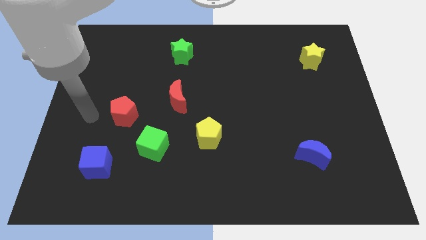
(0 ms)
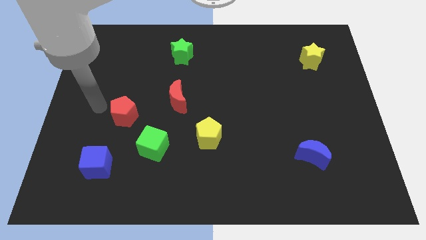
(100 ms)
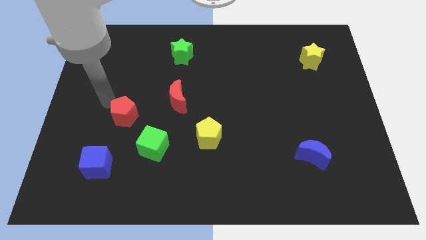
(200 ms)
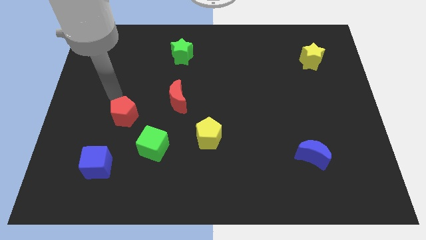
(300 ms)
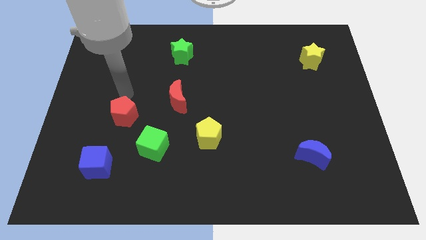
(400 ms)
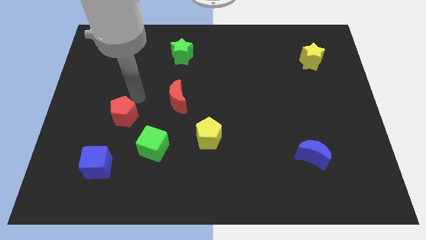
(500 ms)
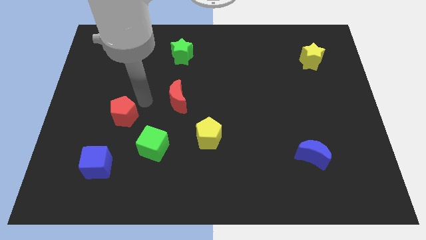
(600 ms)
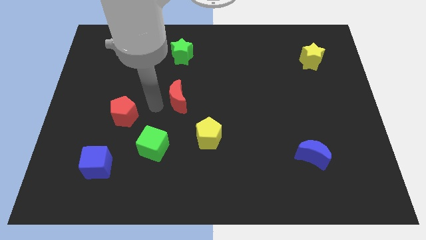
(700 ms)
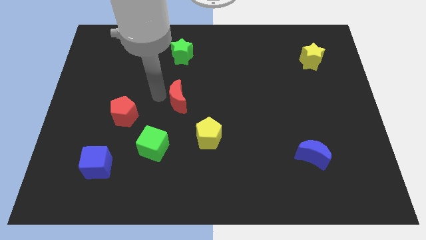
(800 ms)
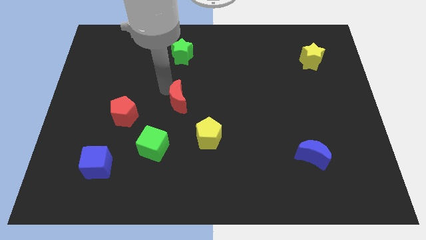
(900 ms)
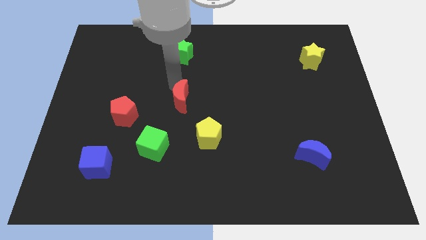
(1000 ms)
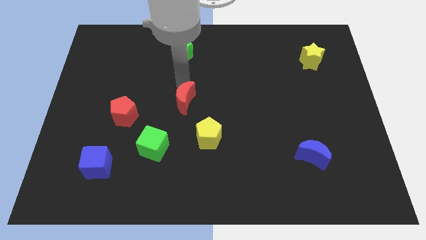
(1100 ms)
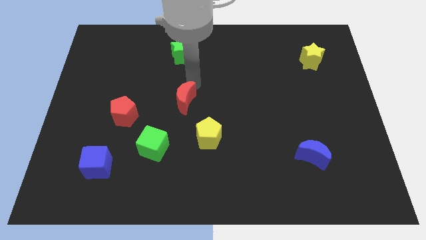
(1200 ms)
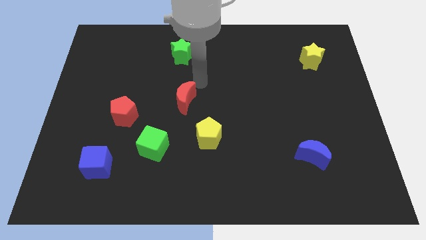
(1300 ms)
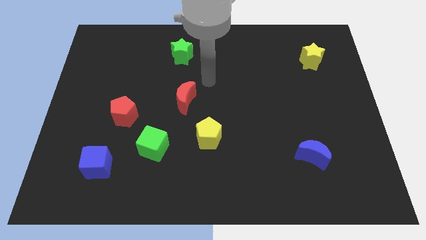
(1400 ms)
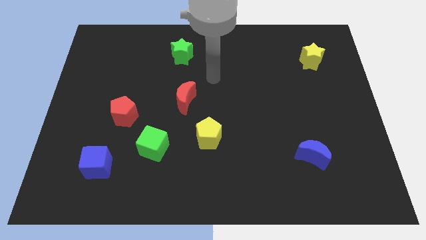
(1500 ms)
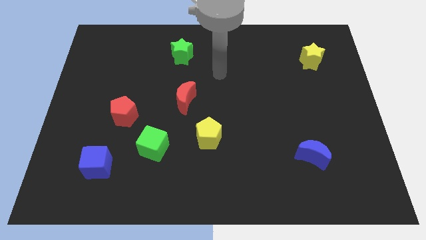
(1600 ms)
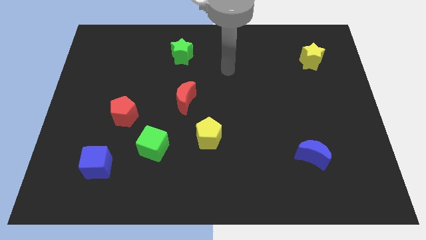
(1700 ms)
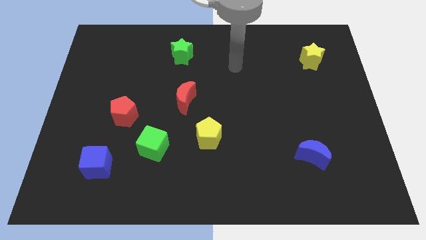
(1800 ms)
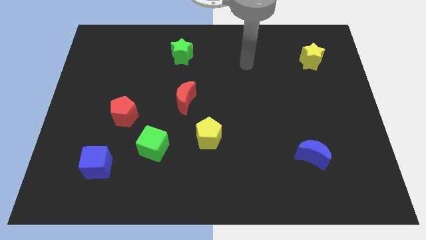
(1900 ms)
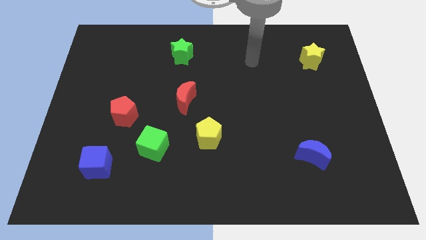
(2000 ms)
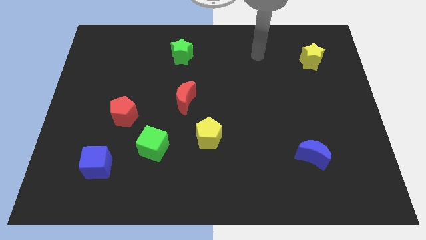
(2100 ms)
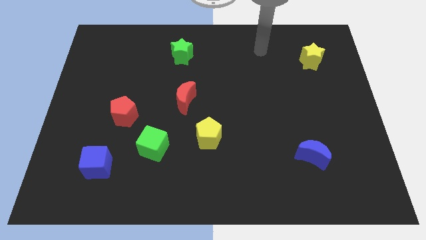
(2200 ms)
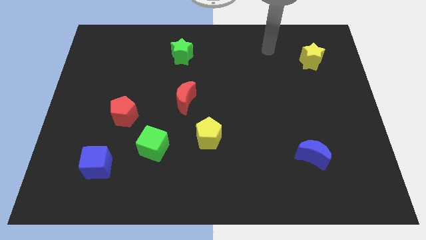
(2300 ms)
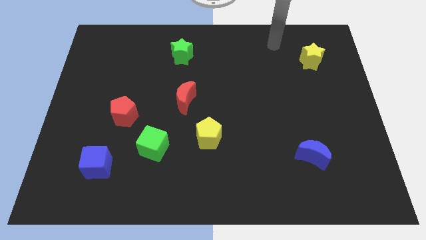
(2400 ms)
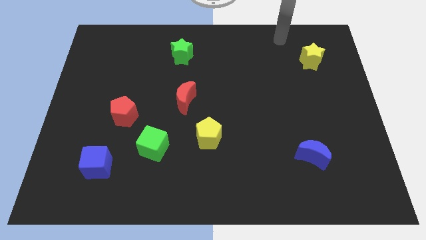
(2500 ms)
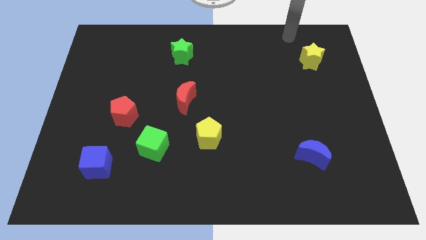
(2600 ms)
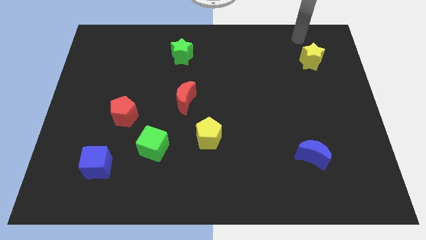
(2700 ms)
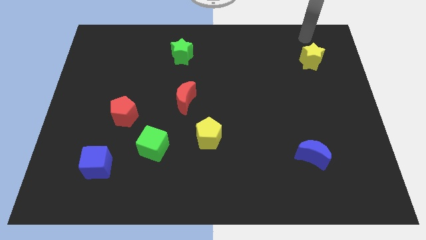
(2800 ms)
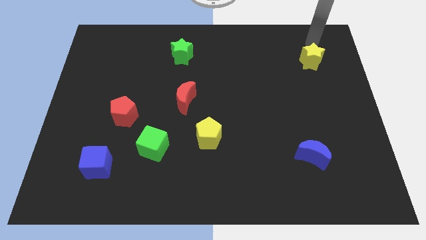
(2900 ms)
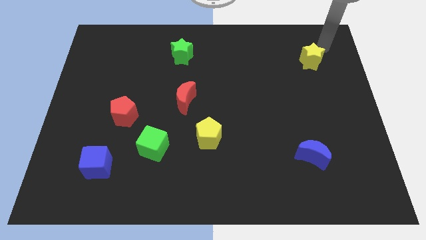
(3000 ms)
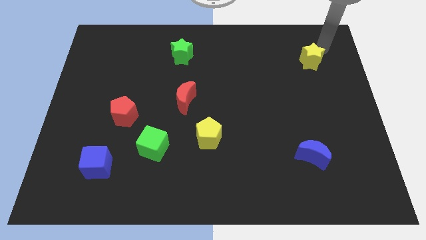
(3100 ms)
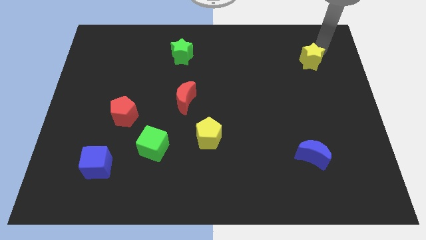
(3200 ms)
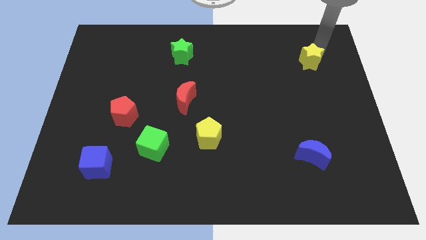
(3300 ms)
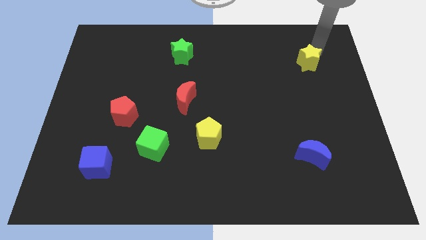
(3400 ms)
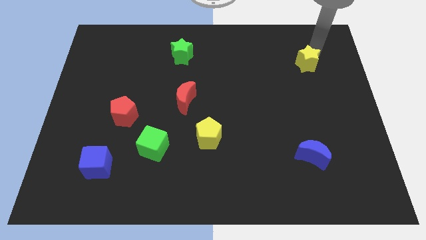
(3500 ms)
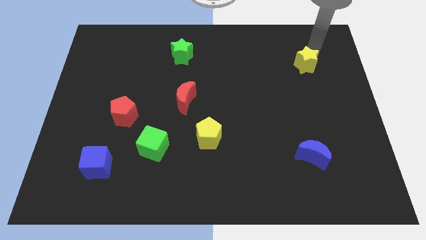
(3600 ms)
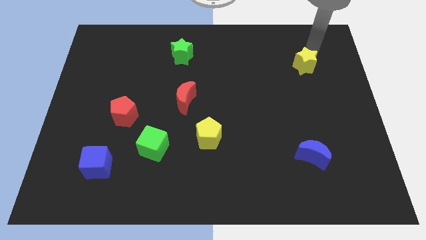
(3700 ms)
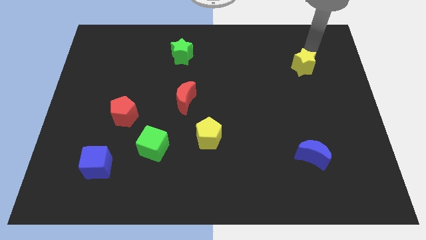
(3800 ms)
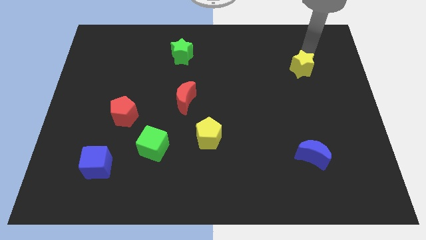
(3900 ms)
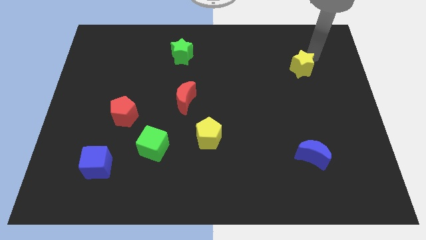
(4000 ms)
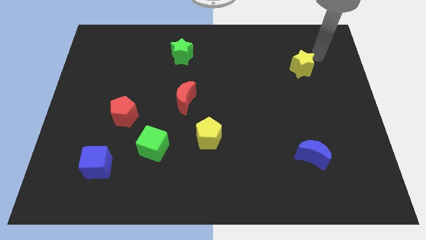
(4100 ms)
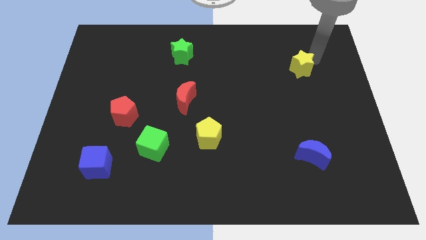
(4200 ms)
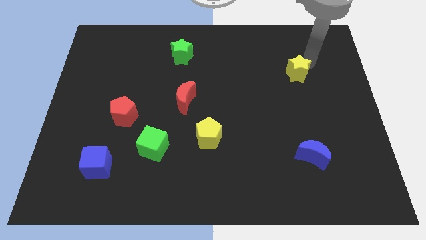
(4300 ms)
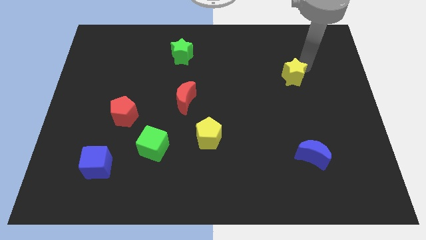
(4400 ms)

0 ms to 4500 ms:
slightly slide the yellow star down and to the left diagonally

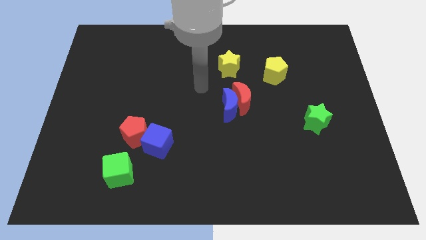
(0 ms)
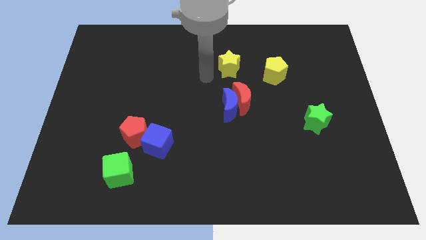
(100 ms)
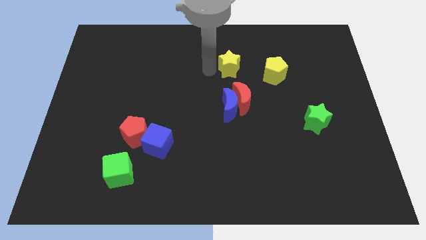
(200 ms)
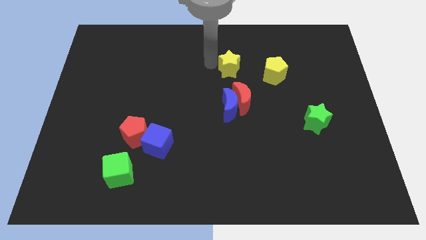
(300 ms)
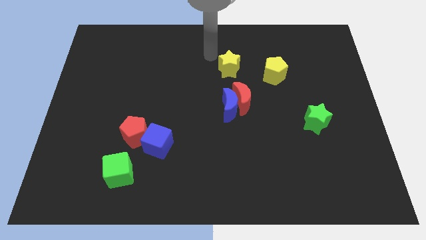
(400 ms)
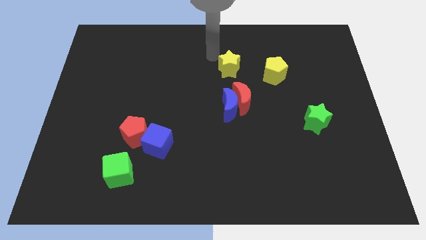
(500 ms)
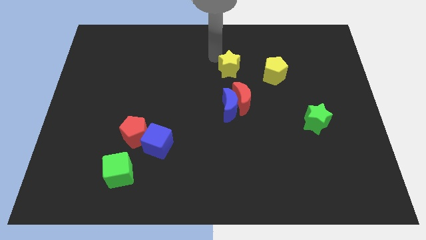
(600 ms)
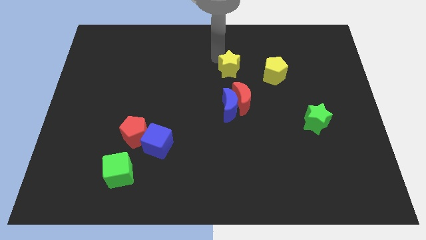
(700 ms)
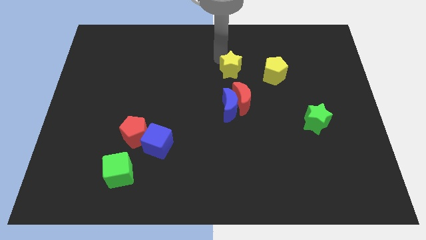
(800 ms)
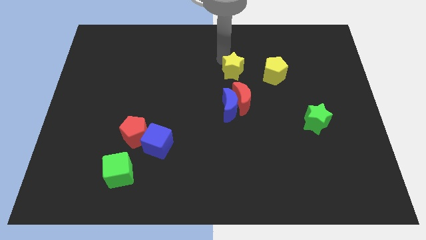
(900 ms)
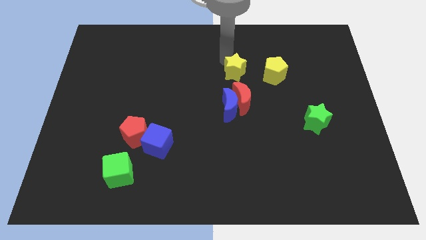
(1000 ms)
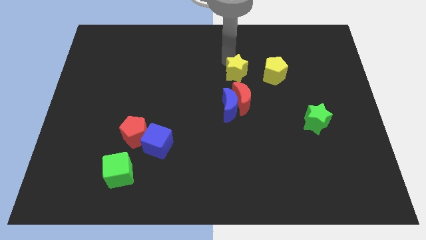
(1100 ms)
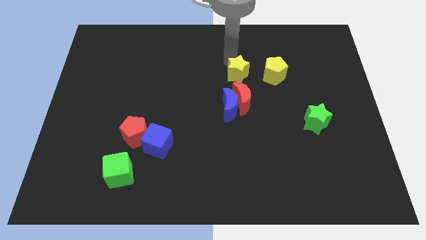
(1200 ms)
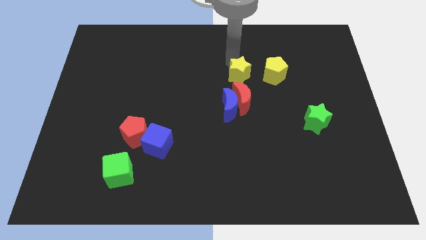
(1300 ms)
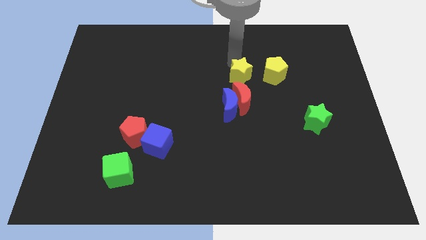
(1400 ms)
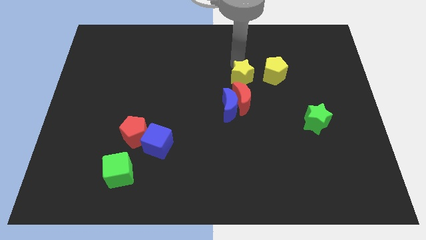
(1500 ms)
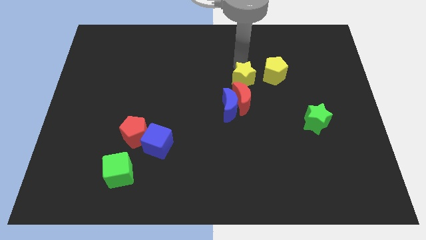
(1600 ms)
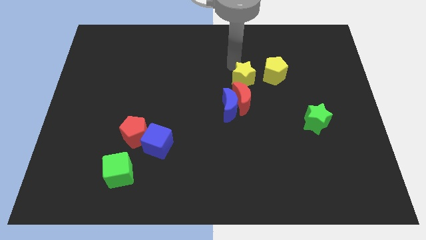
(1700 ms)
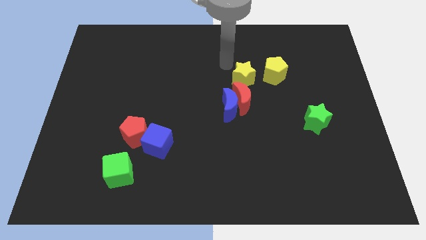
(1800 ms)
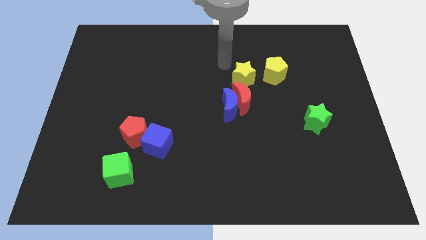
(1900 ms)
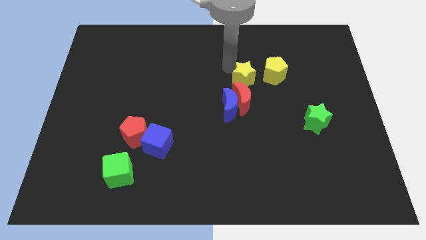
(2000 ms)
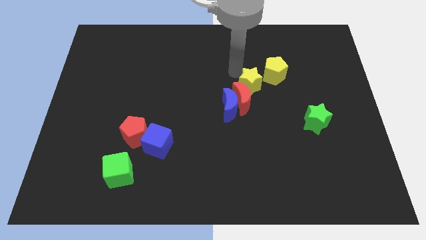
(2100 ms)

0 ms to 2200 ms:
move the yellow star down and then to the right a bit

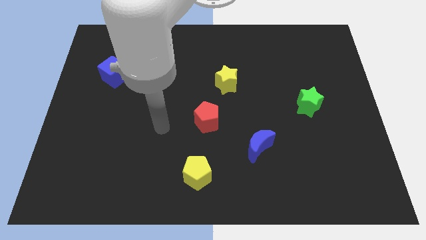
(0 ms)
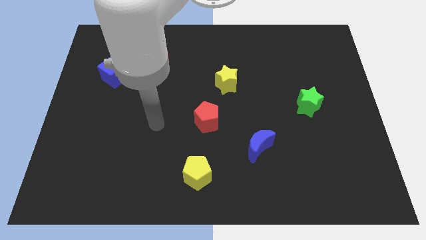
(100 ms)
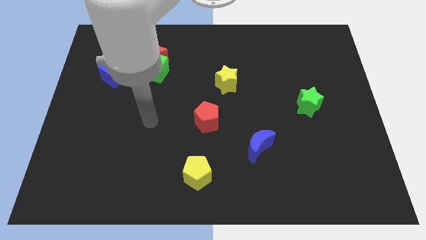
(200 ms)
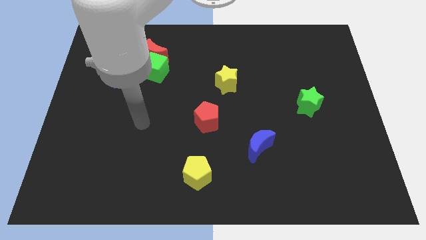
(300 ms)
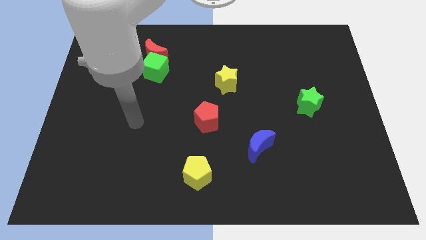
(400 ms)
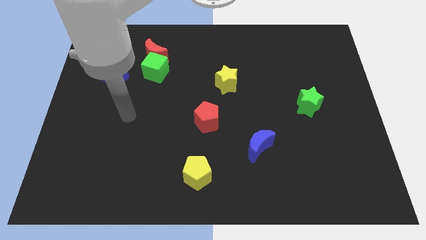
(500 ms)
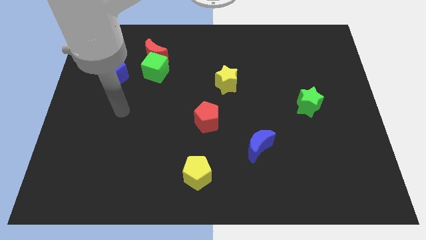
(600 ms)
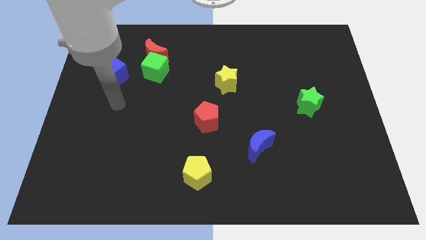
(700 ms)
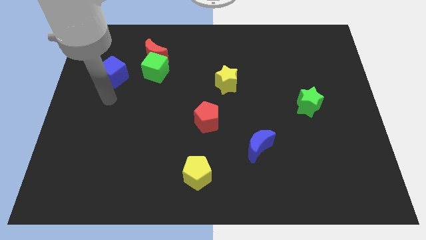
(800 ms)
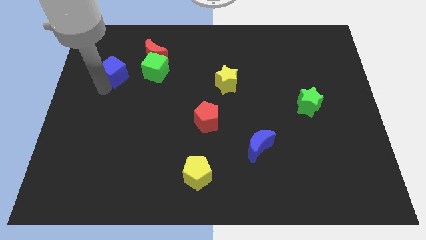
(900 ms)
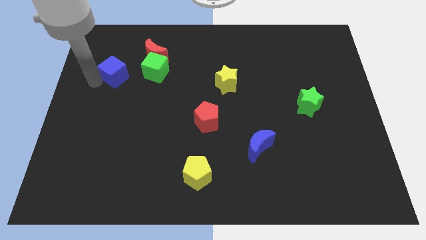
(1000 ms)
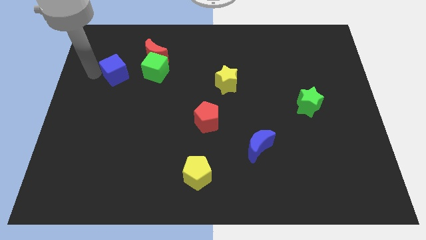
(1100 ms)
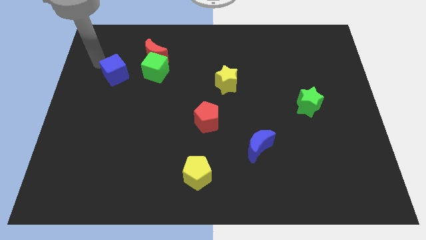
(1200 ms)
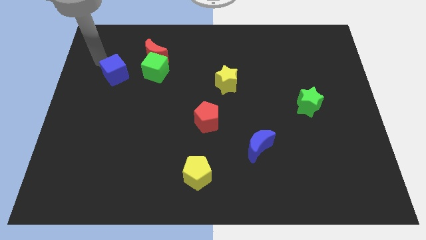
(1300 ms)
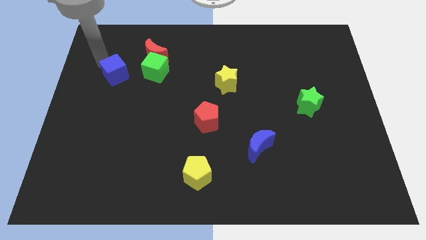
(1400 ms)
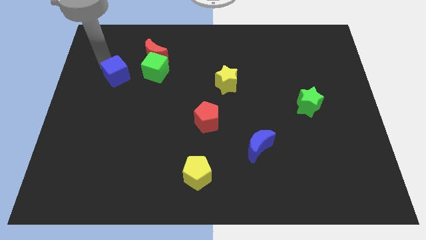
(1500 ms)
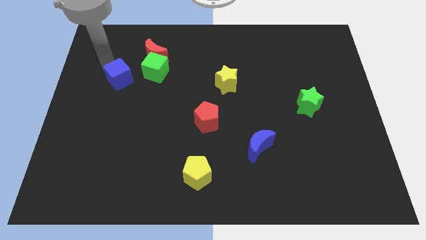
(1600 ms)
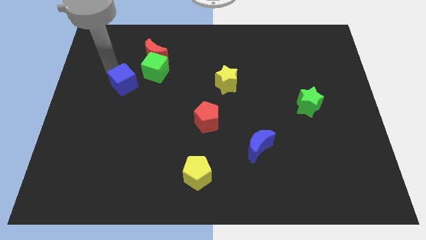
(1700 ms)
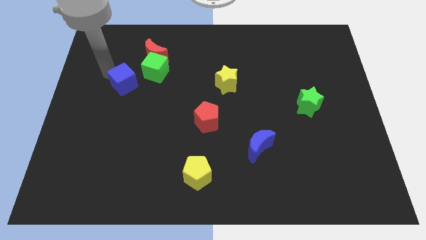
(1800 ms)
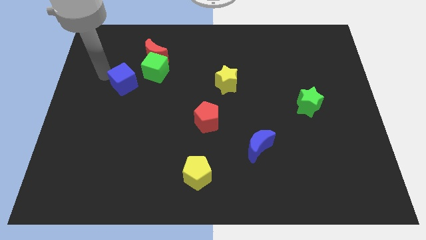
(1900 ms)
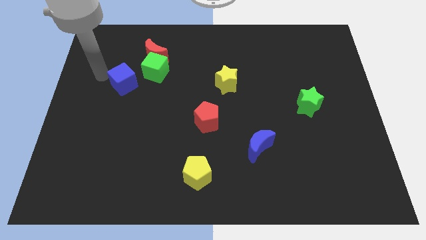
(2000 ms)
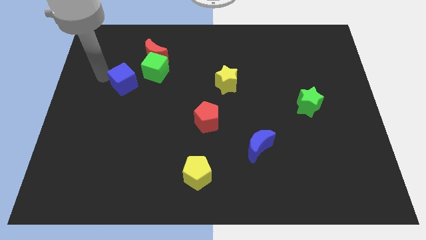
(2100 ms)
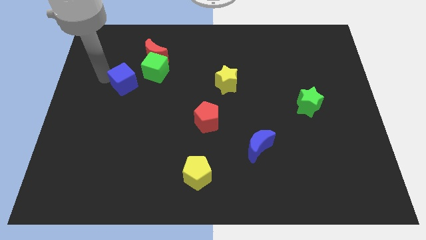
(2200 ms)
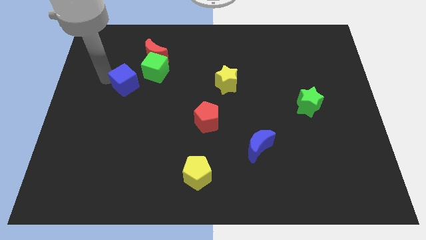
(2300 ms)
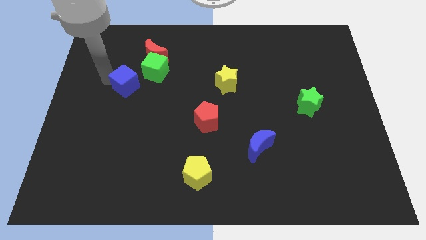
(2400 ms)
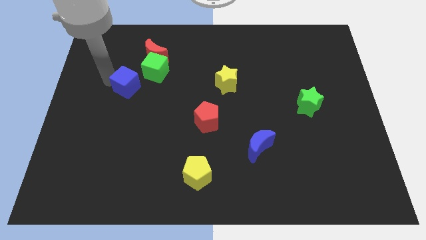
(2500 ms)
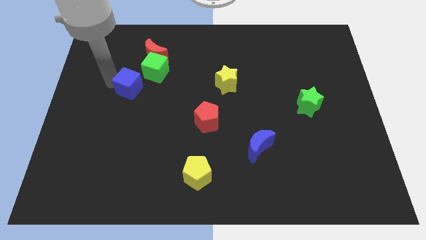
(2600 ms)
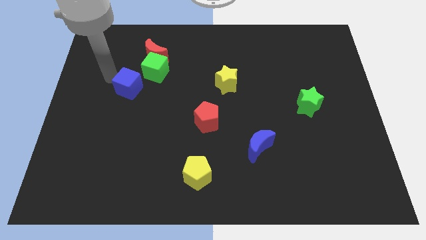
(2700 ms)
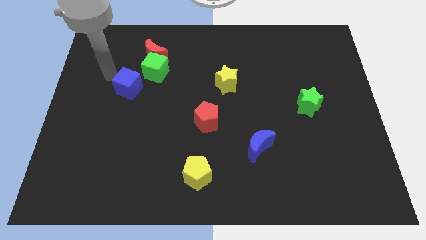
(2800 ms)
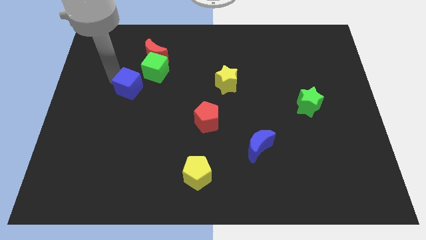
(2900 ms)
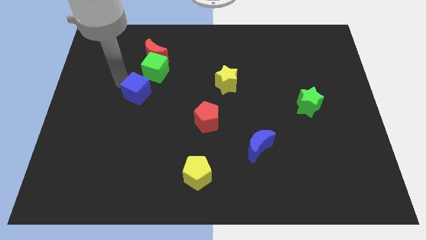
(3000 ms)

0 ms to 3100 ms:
push the blue cube downwards and then right slightly
